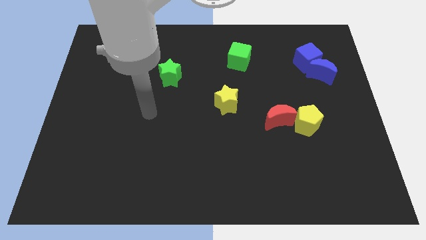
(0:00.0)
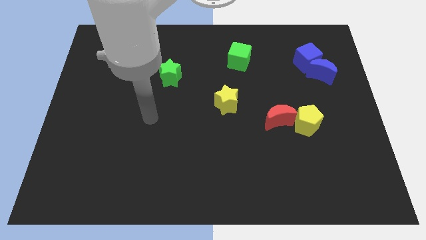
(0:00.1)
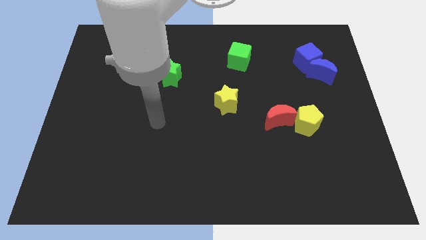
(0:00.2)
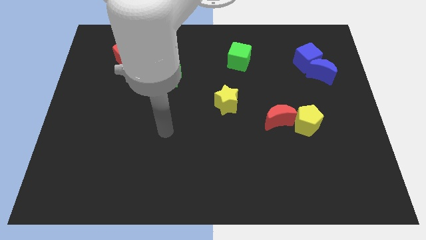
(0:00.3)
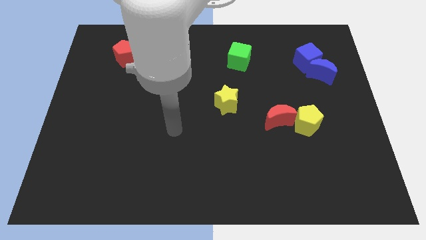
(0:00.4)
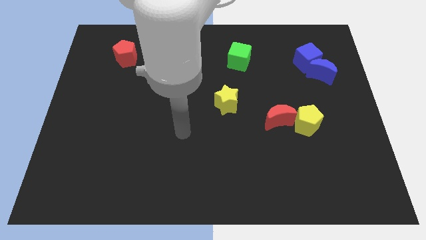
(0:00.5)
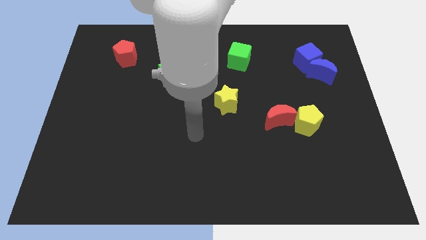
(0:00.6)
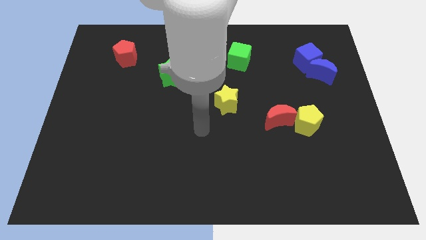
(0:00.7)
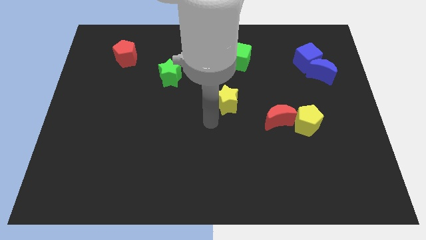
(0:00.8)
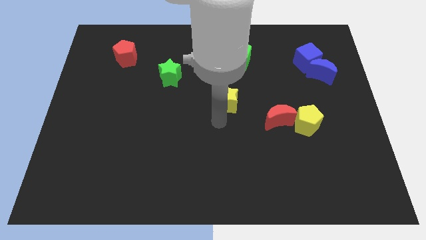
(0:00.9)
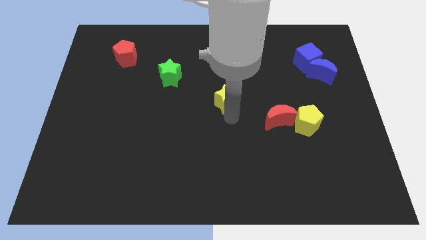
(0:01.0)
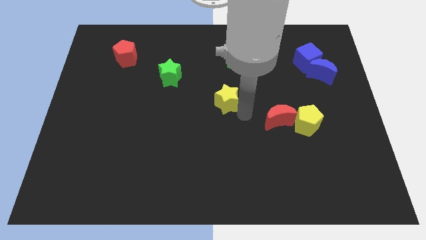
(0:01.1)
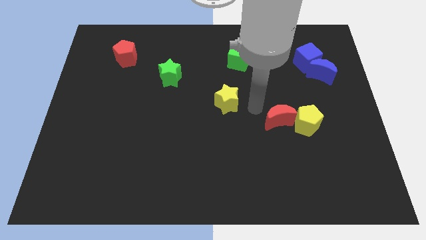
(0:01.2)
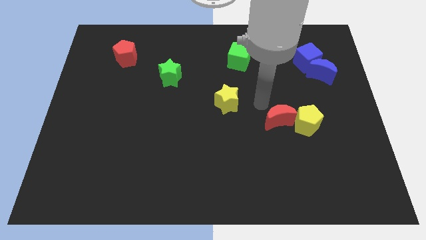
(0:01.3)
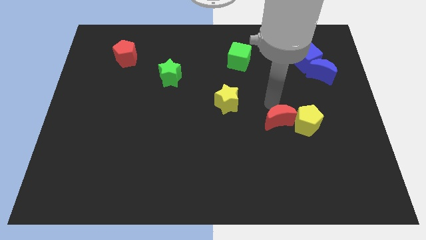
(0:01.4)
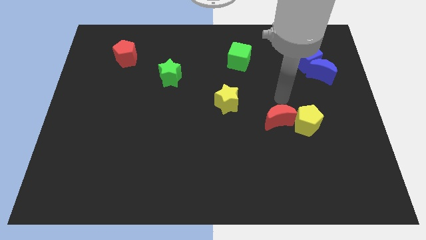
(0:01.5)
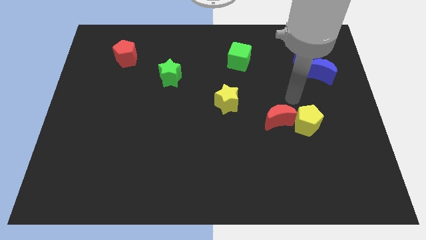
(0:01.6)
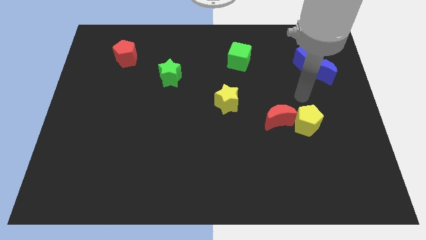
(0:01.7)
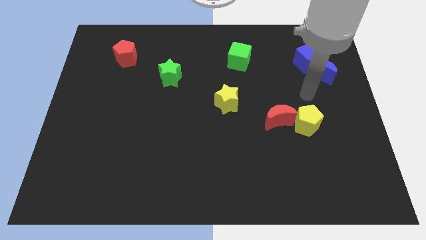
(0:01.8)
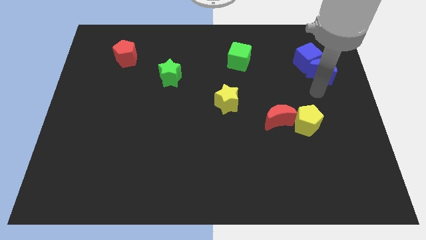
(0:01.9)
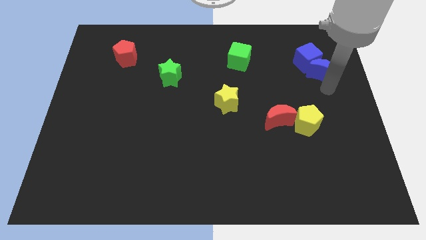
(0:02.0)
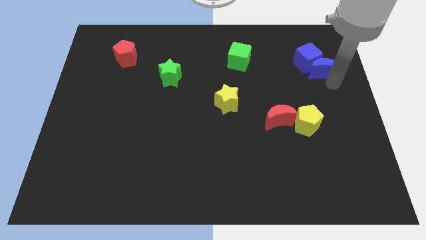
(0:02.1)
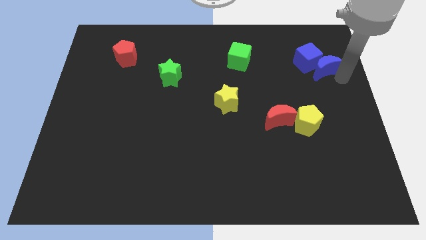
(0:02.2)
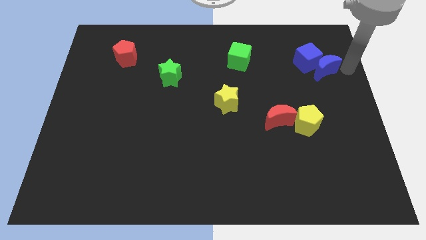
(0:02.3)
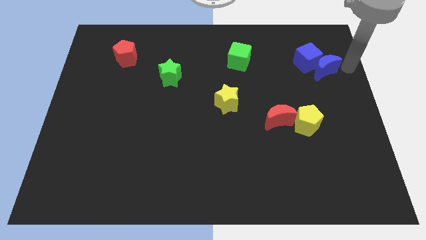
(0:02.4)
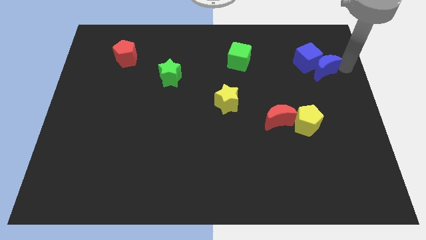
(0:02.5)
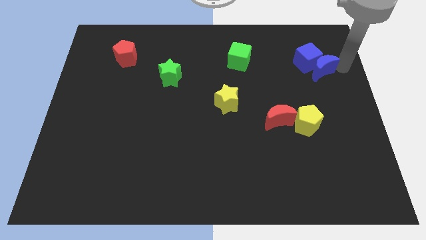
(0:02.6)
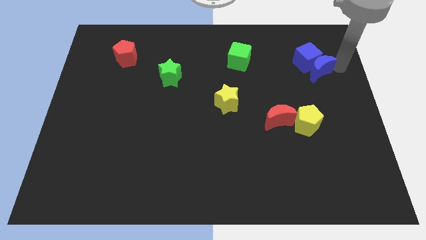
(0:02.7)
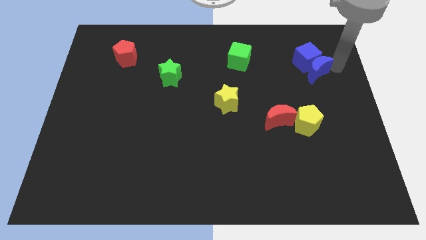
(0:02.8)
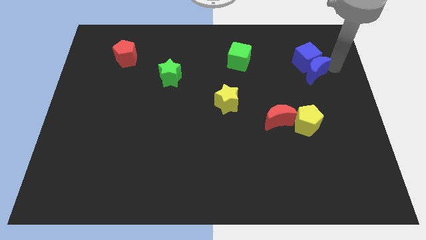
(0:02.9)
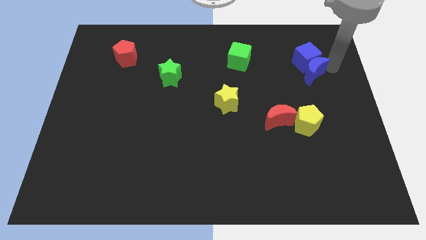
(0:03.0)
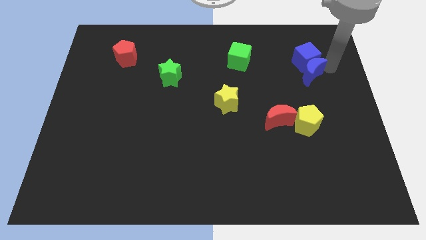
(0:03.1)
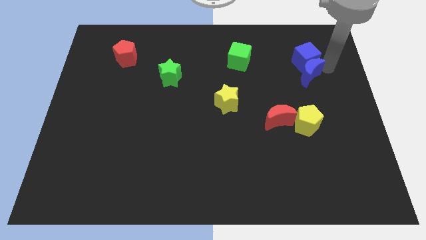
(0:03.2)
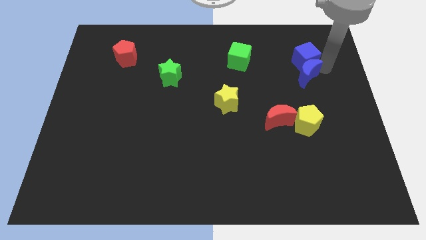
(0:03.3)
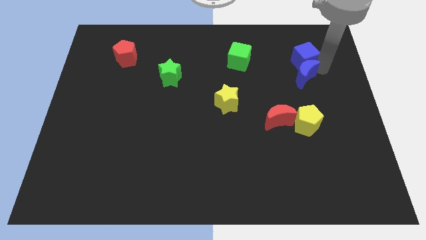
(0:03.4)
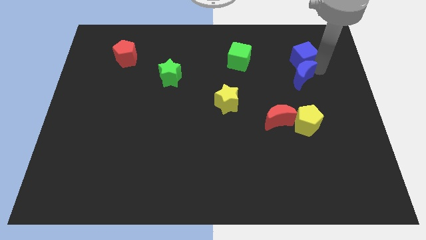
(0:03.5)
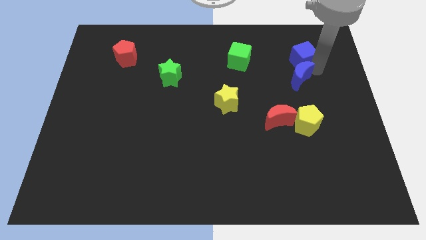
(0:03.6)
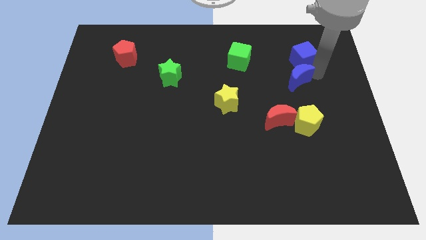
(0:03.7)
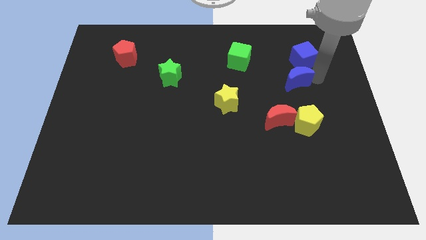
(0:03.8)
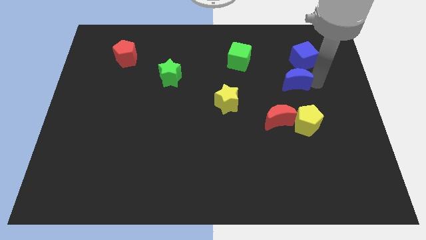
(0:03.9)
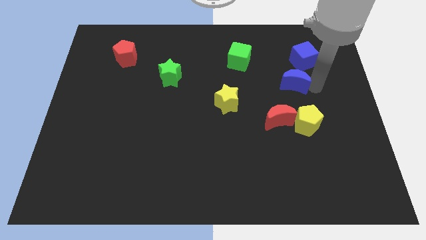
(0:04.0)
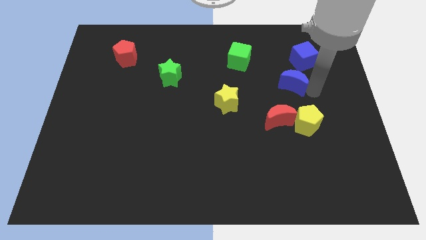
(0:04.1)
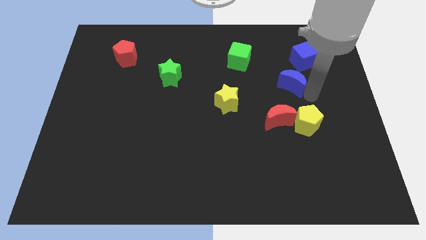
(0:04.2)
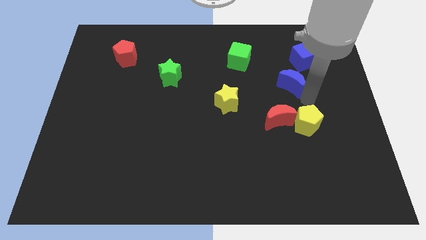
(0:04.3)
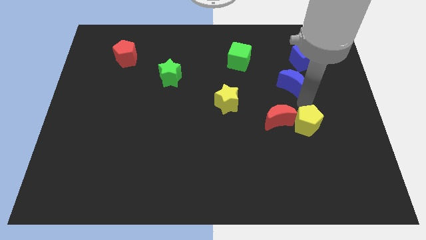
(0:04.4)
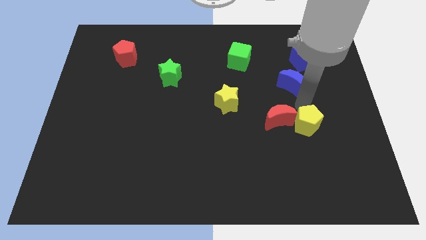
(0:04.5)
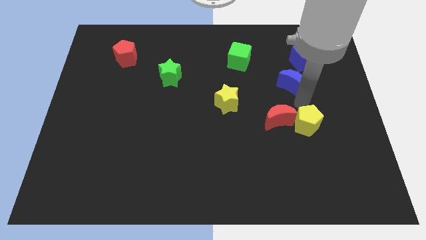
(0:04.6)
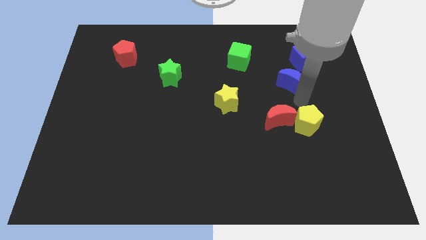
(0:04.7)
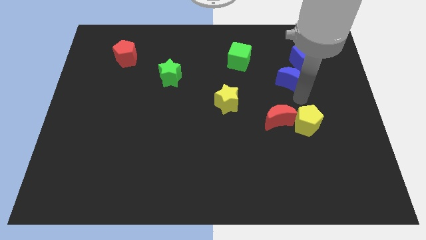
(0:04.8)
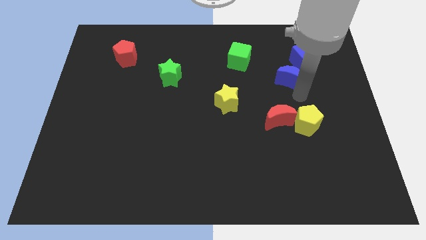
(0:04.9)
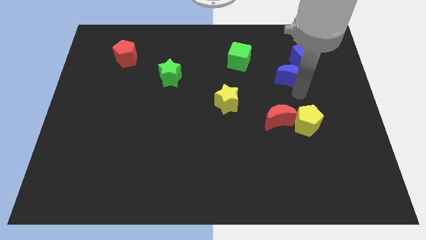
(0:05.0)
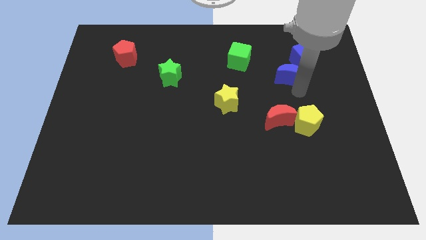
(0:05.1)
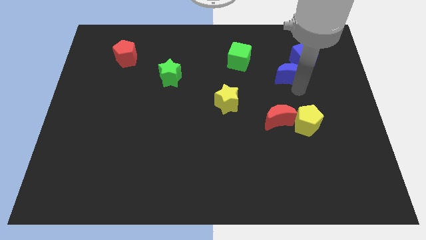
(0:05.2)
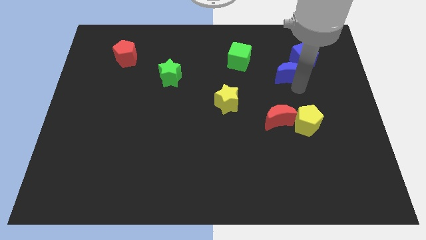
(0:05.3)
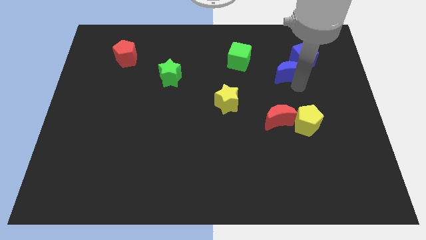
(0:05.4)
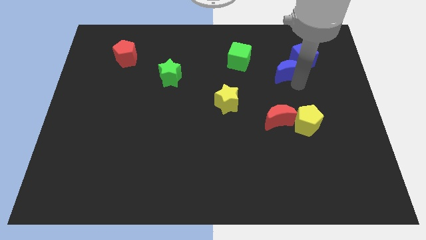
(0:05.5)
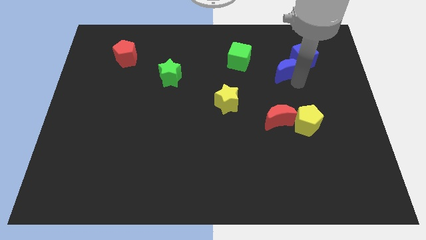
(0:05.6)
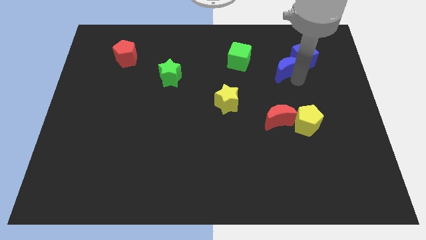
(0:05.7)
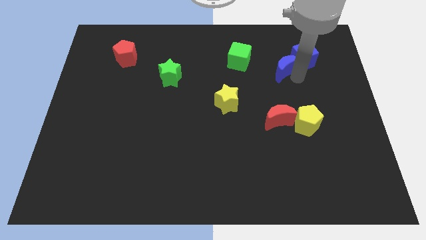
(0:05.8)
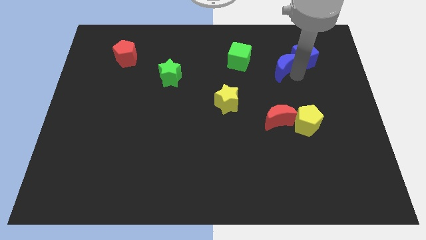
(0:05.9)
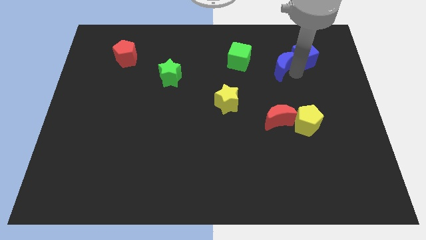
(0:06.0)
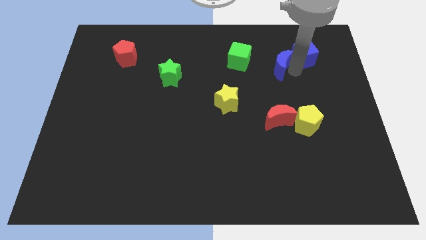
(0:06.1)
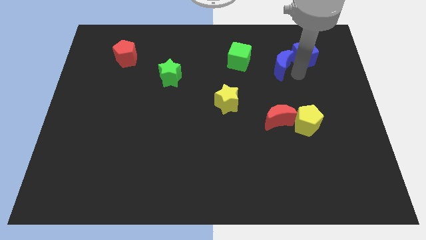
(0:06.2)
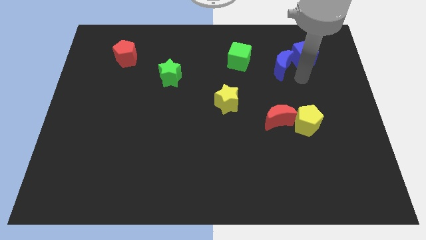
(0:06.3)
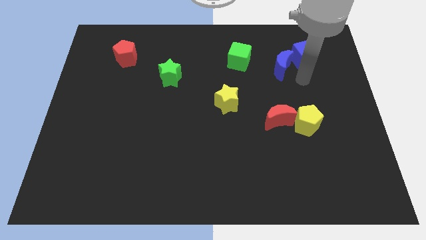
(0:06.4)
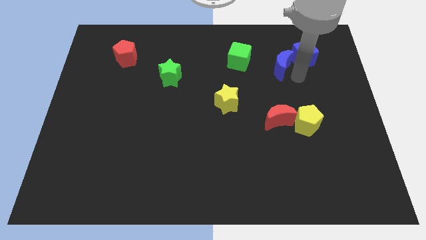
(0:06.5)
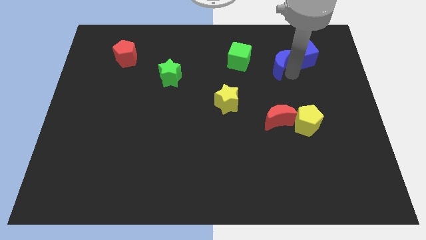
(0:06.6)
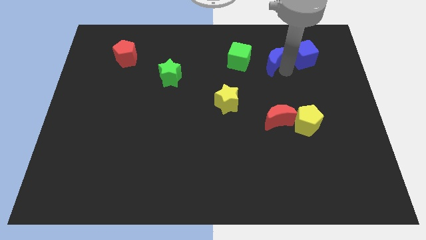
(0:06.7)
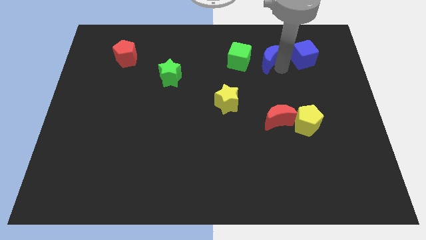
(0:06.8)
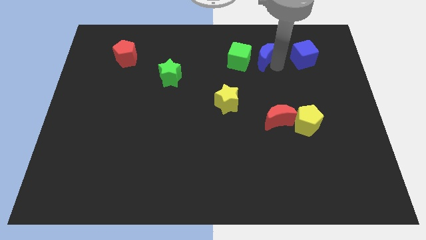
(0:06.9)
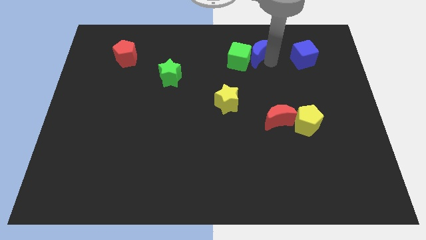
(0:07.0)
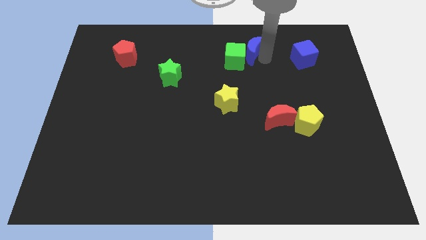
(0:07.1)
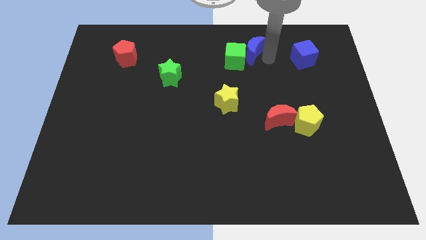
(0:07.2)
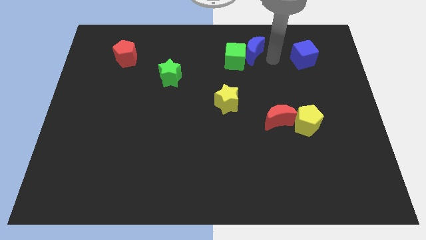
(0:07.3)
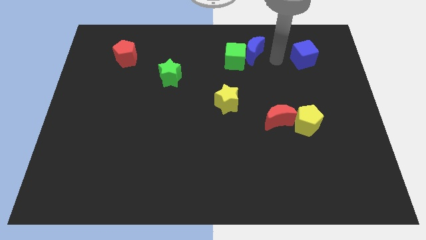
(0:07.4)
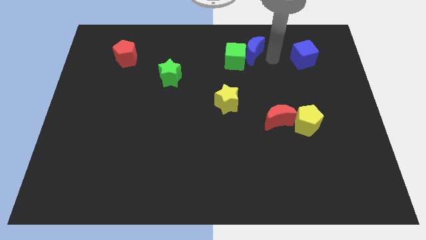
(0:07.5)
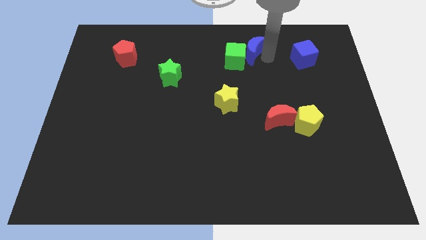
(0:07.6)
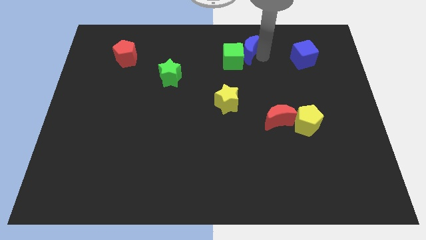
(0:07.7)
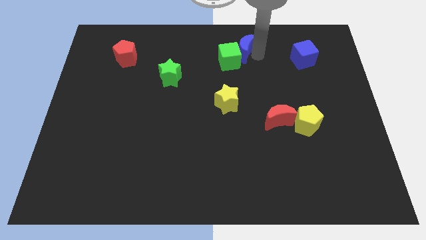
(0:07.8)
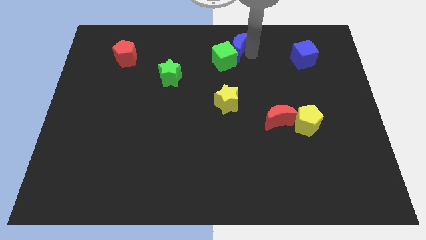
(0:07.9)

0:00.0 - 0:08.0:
put the blue moon to the towards your base
